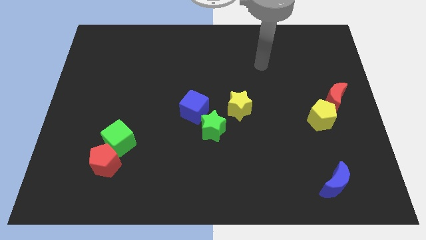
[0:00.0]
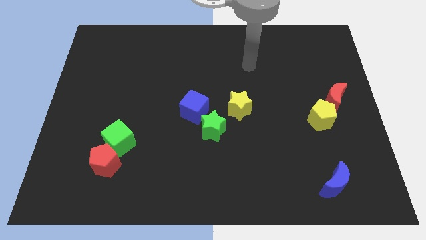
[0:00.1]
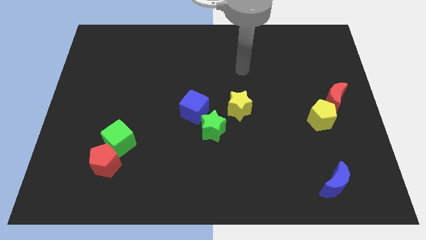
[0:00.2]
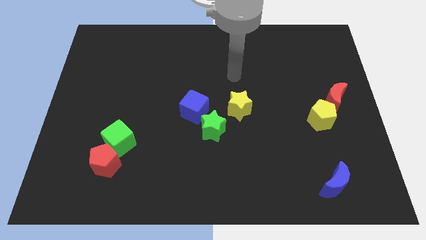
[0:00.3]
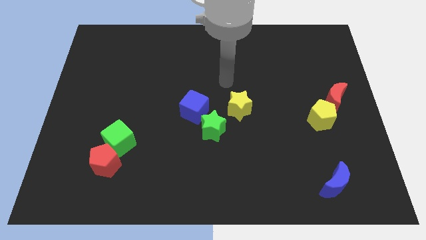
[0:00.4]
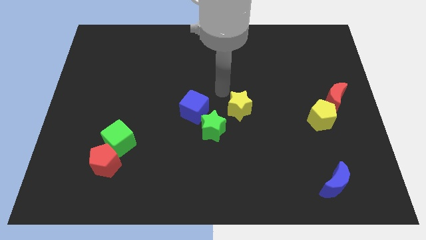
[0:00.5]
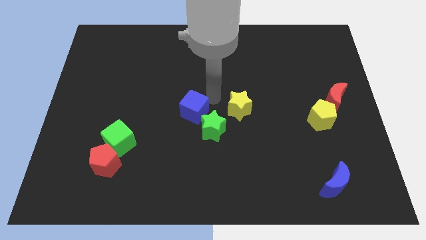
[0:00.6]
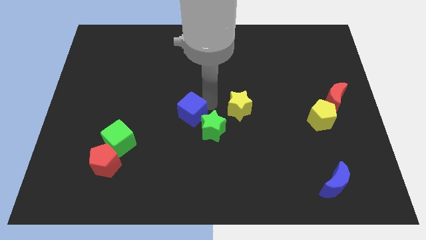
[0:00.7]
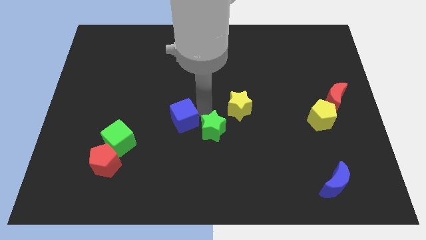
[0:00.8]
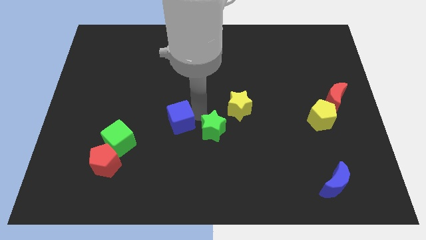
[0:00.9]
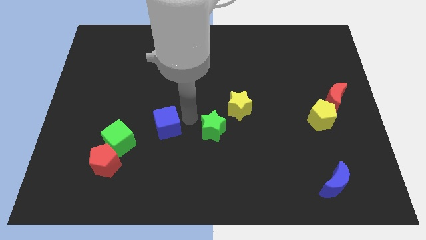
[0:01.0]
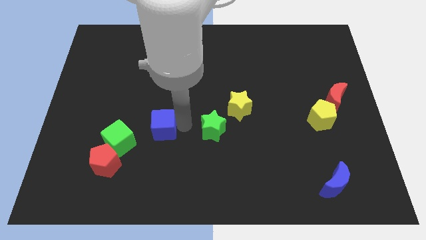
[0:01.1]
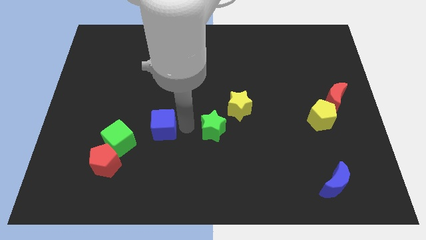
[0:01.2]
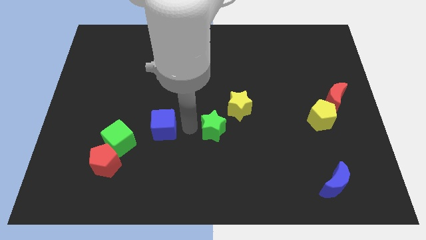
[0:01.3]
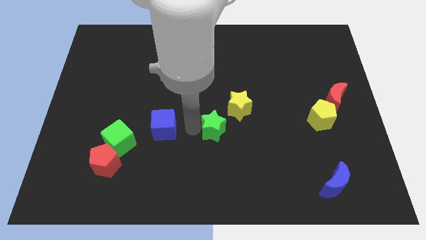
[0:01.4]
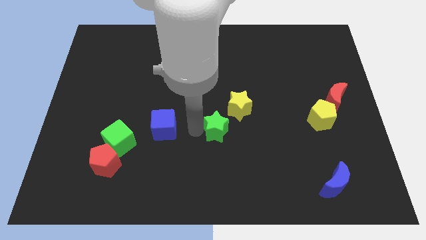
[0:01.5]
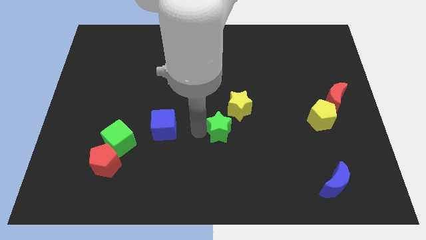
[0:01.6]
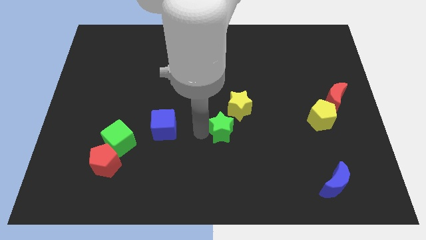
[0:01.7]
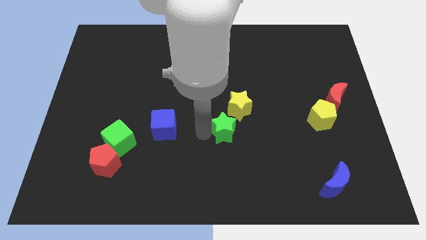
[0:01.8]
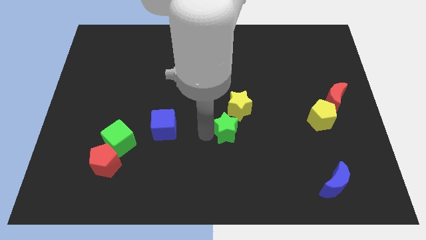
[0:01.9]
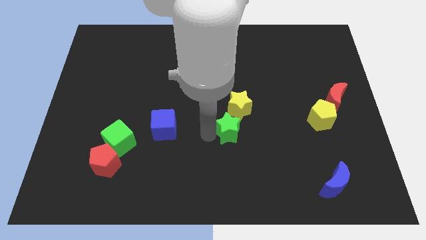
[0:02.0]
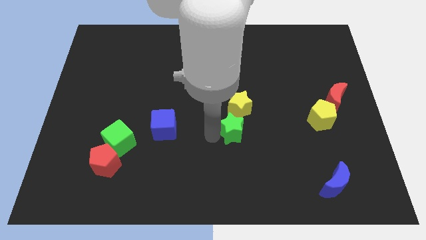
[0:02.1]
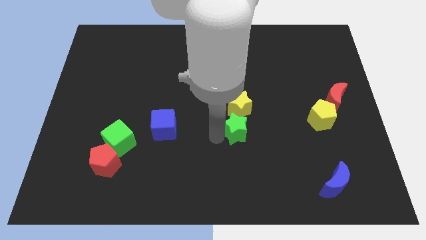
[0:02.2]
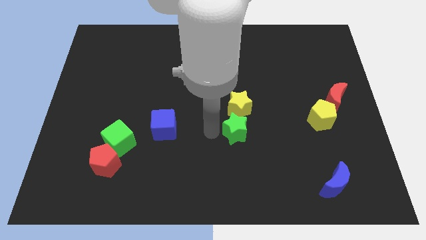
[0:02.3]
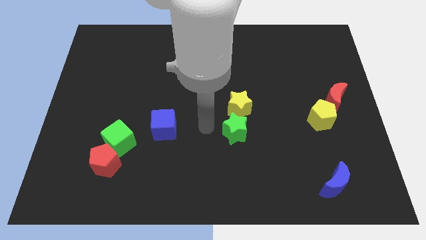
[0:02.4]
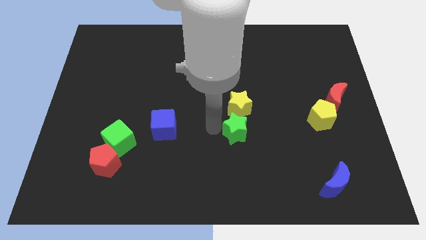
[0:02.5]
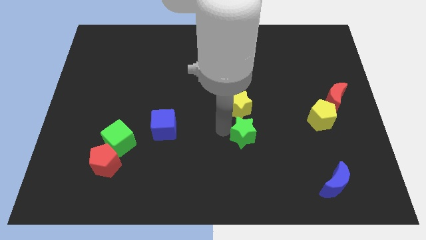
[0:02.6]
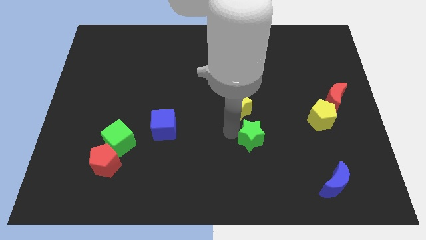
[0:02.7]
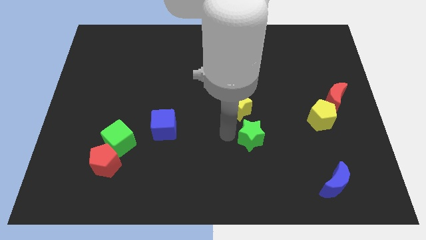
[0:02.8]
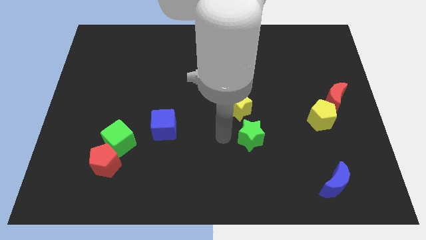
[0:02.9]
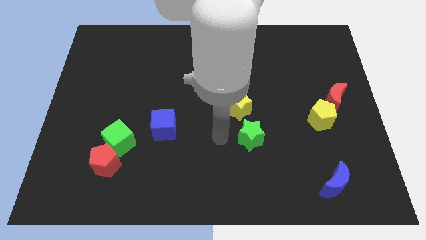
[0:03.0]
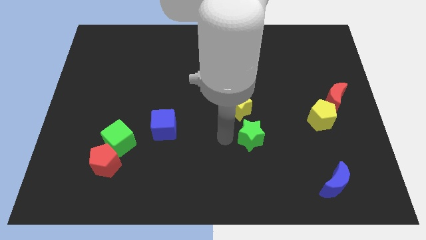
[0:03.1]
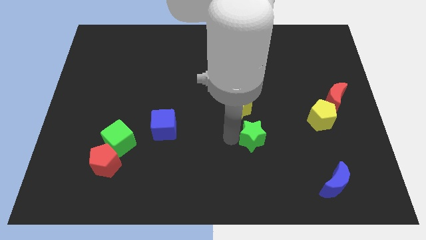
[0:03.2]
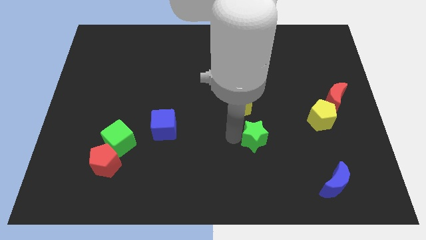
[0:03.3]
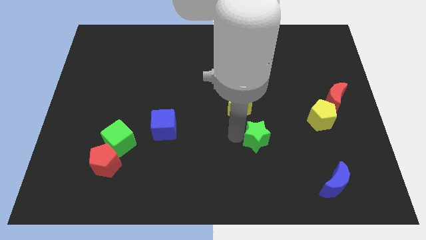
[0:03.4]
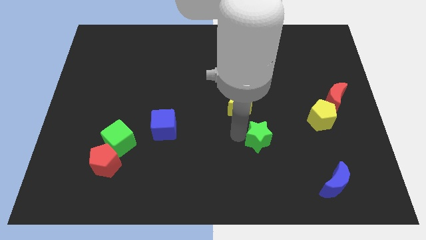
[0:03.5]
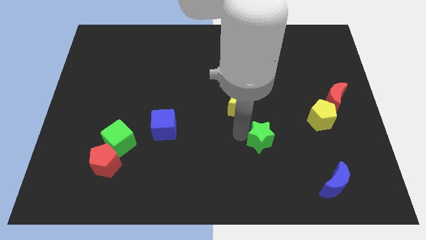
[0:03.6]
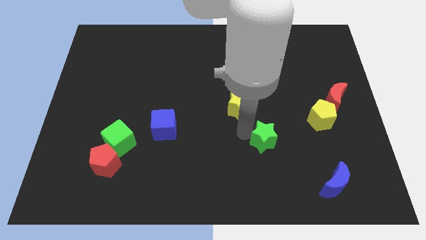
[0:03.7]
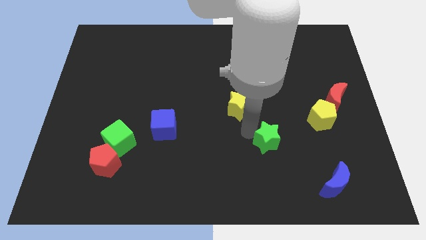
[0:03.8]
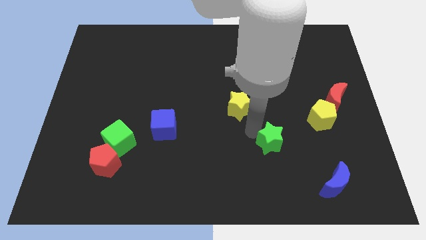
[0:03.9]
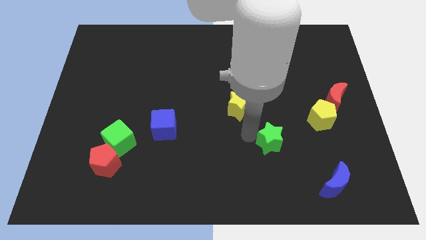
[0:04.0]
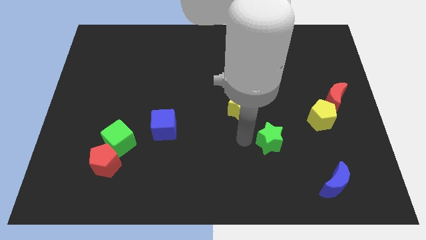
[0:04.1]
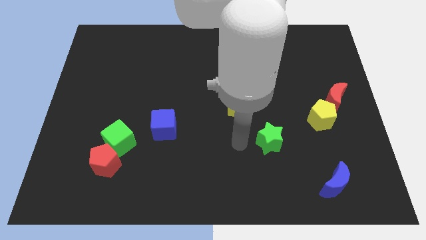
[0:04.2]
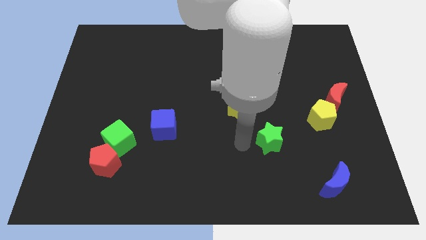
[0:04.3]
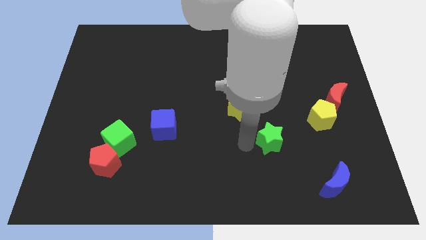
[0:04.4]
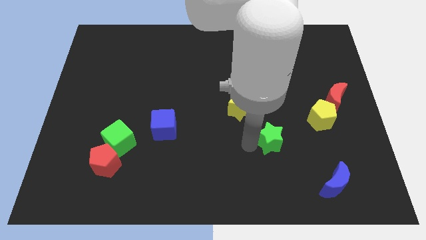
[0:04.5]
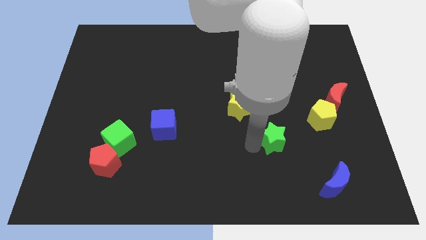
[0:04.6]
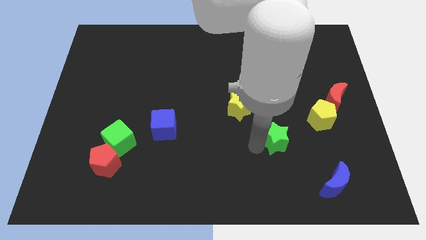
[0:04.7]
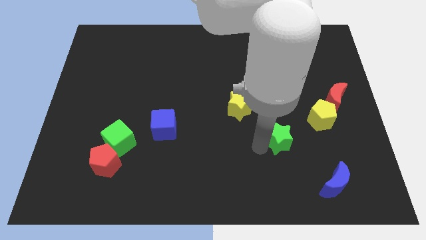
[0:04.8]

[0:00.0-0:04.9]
move the green star to the bottom left of the yellow pentagon

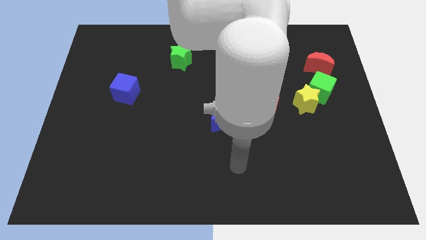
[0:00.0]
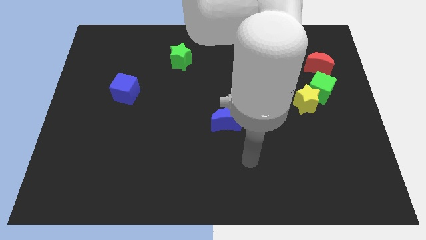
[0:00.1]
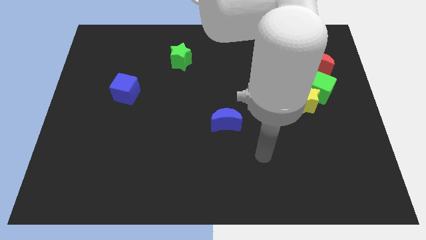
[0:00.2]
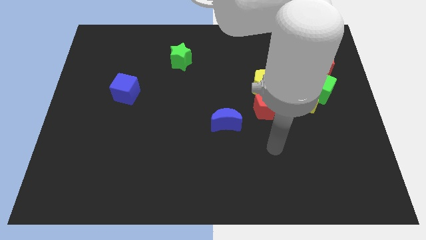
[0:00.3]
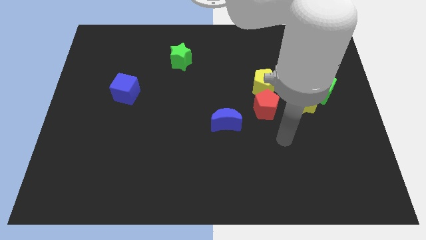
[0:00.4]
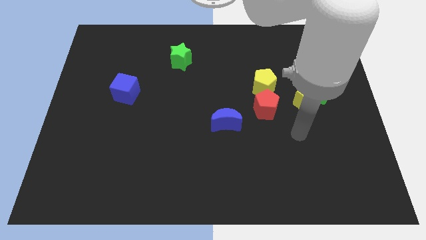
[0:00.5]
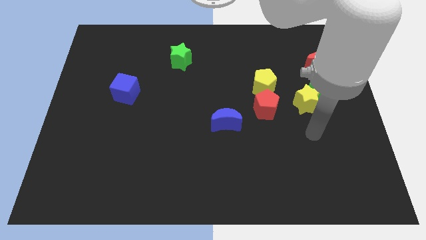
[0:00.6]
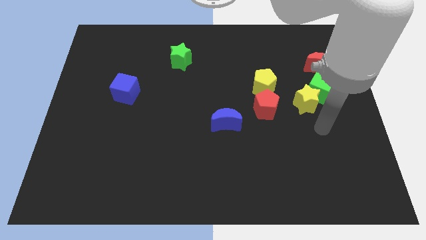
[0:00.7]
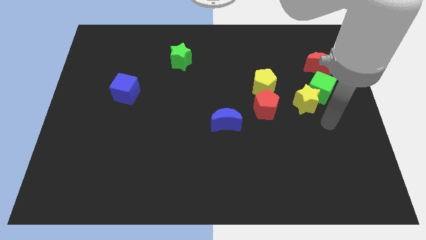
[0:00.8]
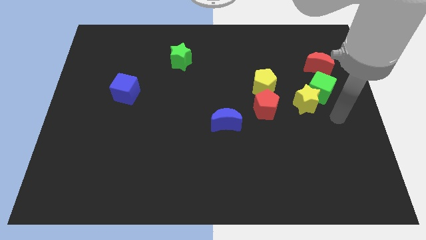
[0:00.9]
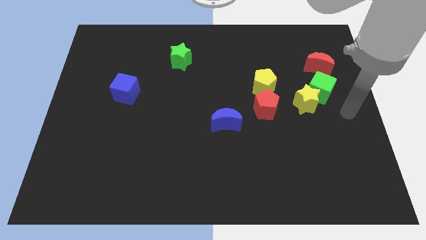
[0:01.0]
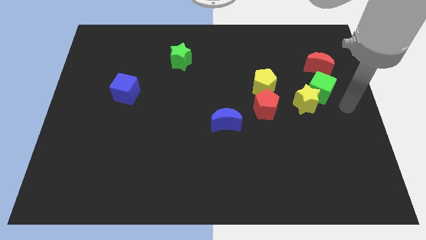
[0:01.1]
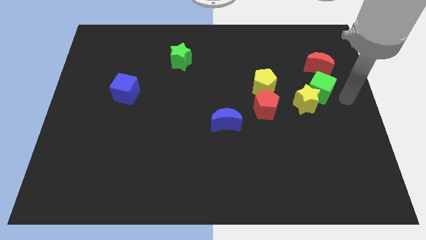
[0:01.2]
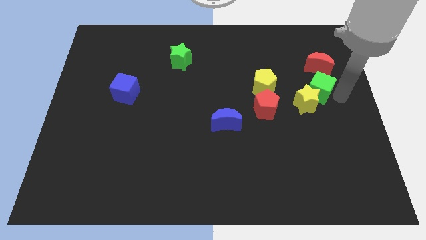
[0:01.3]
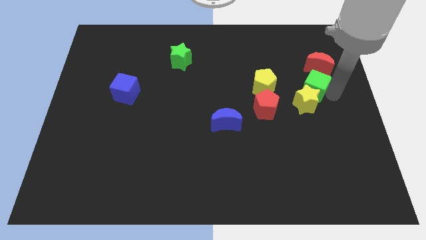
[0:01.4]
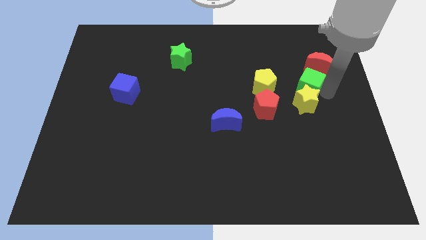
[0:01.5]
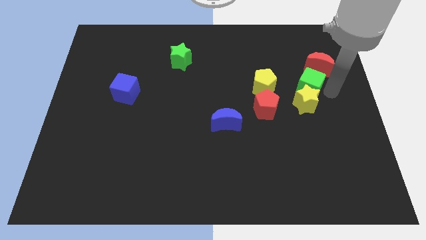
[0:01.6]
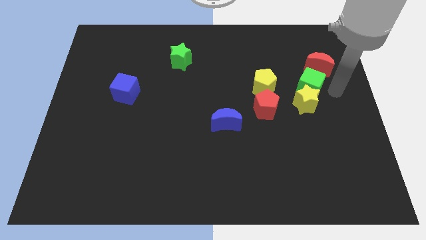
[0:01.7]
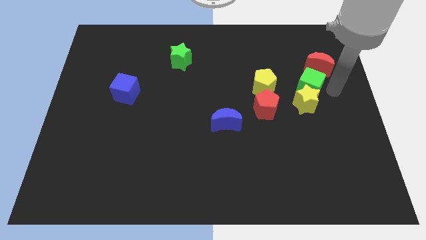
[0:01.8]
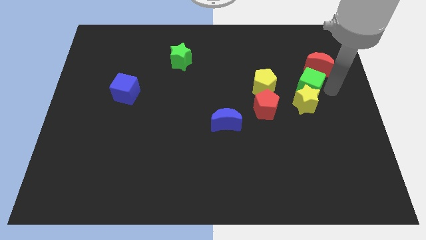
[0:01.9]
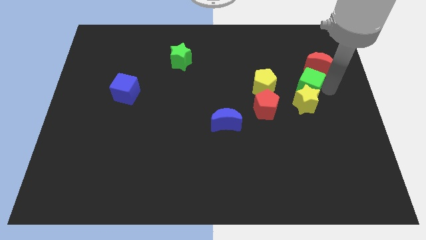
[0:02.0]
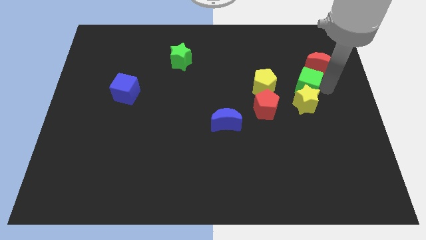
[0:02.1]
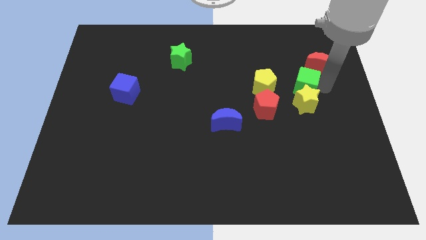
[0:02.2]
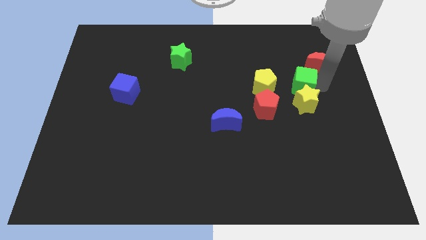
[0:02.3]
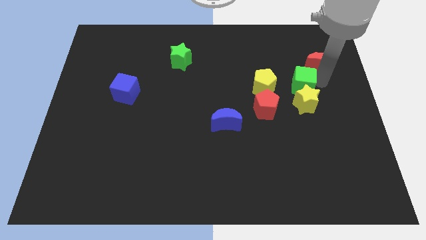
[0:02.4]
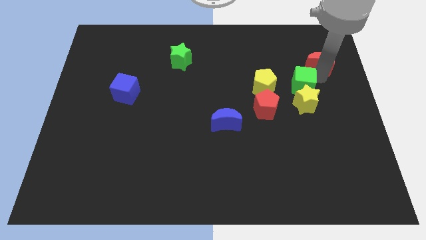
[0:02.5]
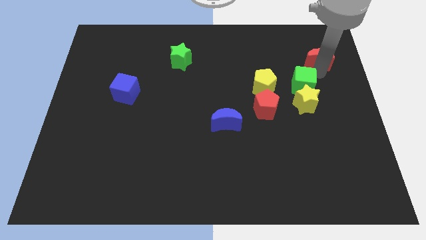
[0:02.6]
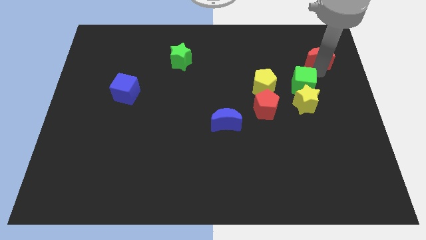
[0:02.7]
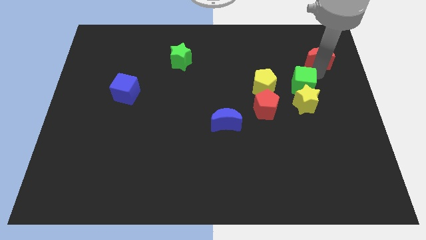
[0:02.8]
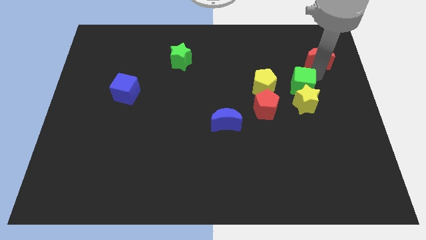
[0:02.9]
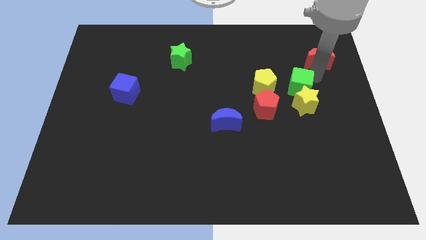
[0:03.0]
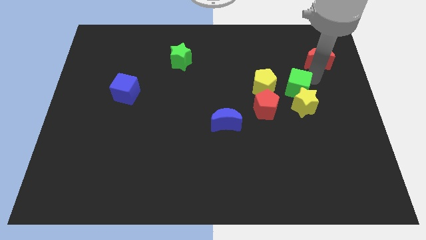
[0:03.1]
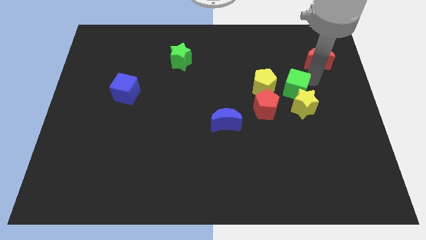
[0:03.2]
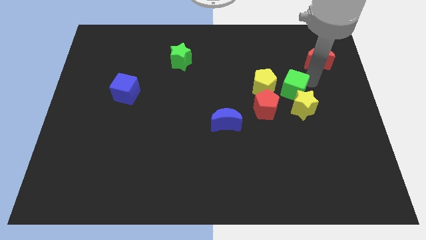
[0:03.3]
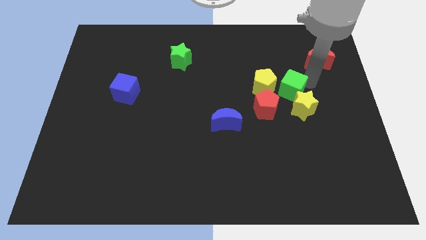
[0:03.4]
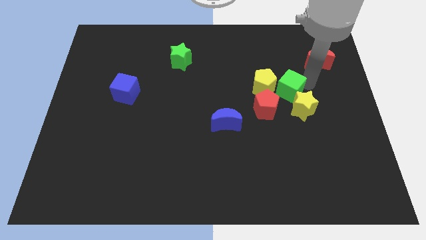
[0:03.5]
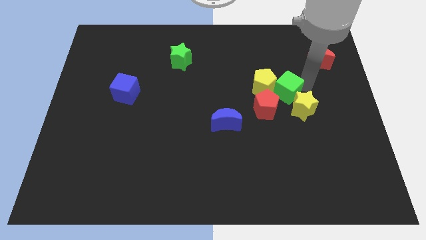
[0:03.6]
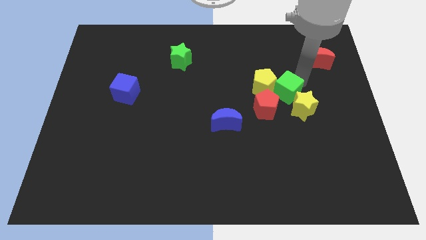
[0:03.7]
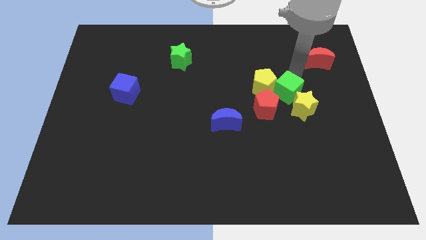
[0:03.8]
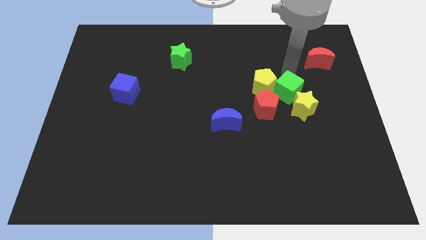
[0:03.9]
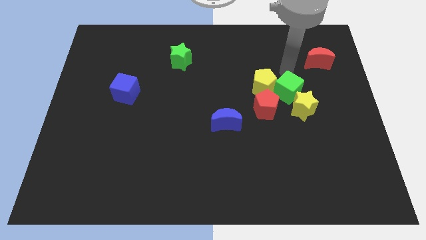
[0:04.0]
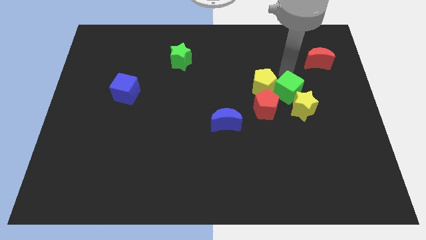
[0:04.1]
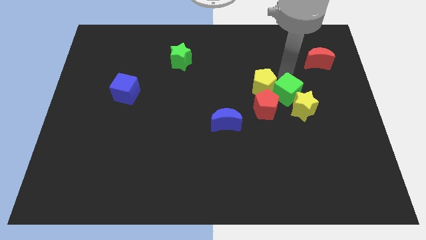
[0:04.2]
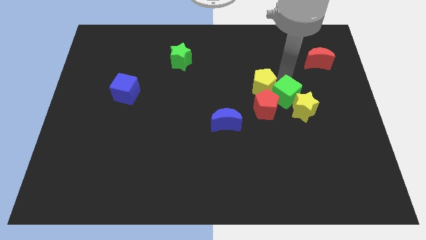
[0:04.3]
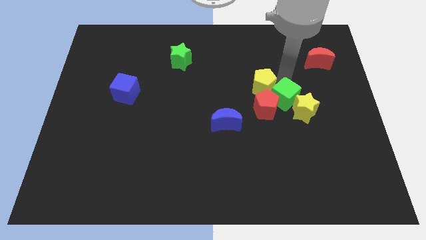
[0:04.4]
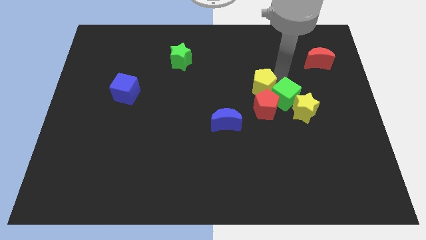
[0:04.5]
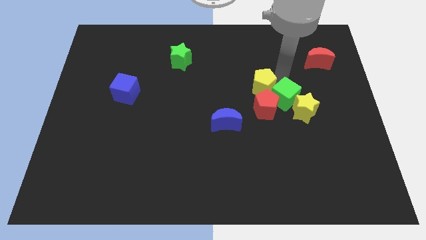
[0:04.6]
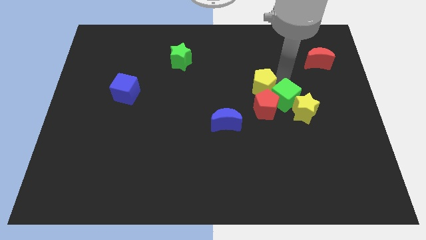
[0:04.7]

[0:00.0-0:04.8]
push the green cube below the yellow pentagon
